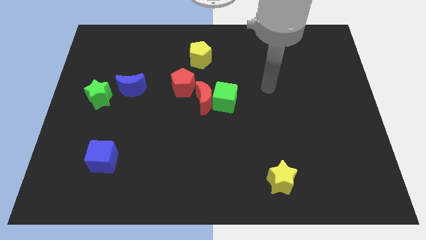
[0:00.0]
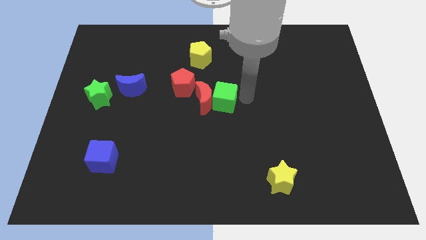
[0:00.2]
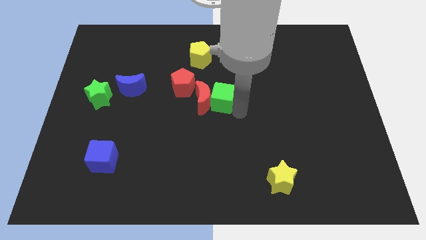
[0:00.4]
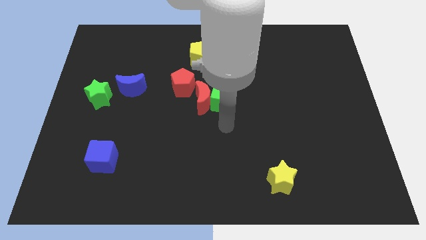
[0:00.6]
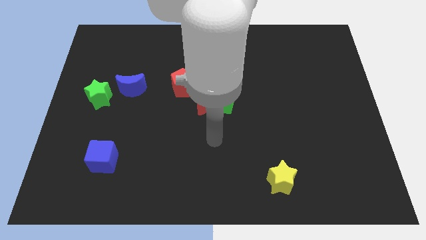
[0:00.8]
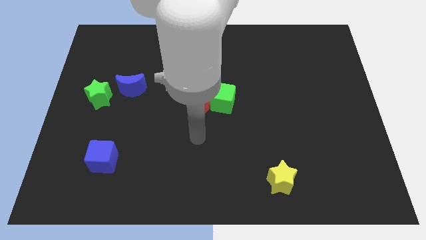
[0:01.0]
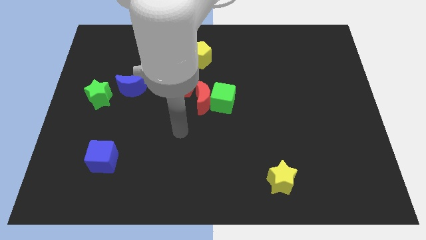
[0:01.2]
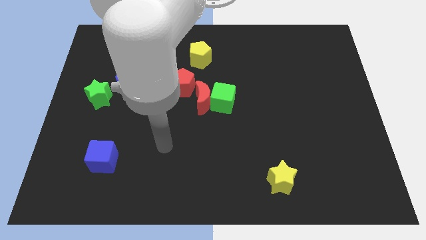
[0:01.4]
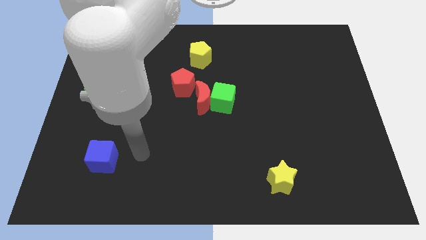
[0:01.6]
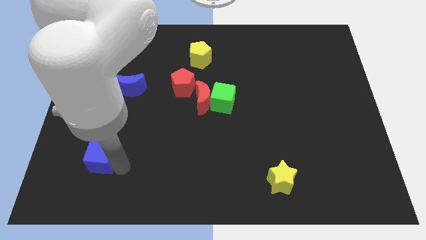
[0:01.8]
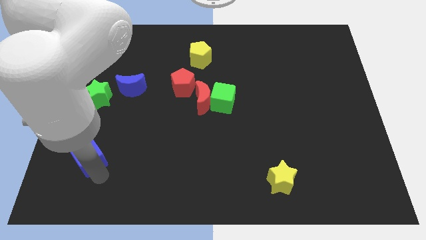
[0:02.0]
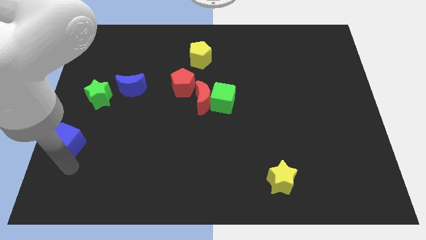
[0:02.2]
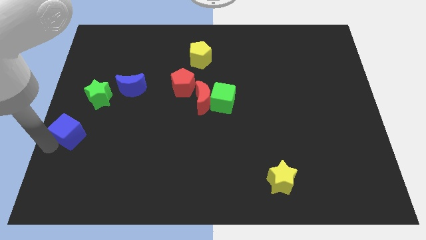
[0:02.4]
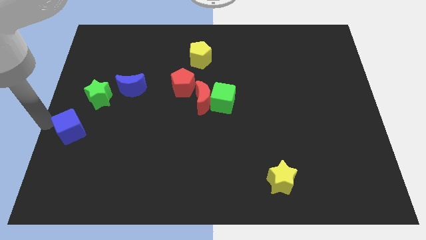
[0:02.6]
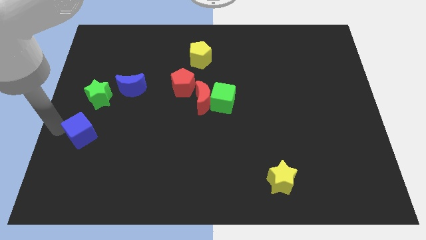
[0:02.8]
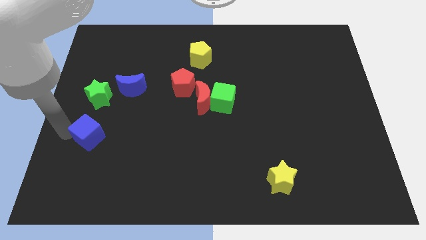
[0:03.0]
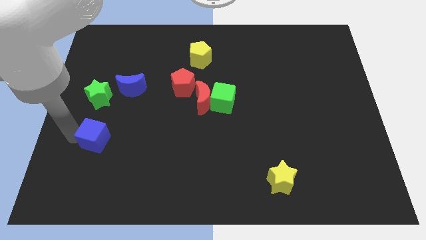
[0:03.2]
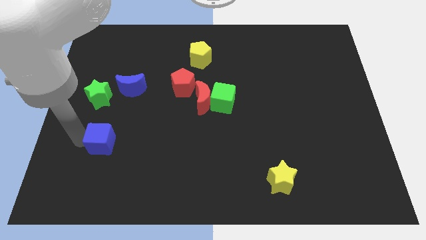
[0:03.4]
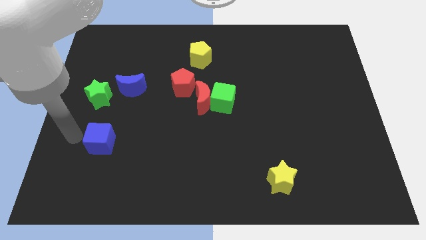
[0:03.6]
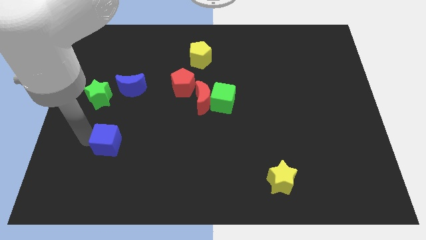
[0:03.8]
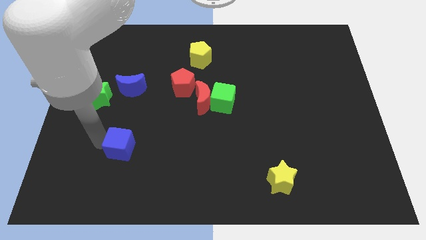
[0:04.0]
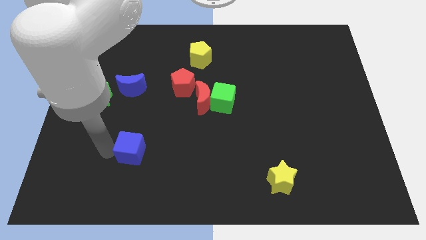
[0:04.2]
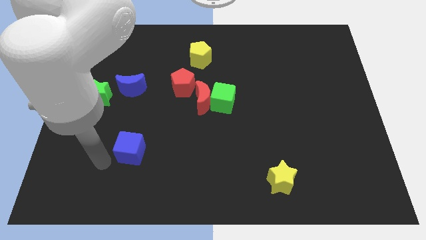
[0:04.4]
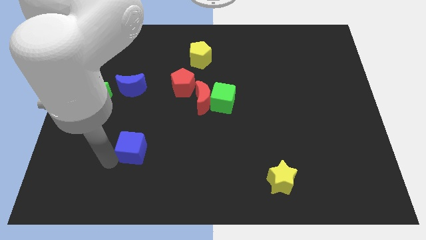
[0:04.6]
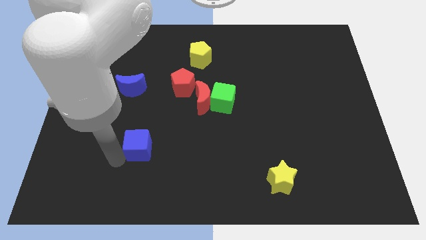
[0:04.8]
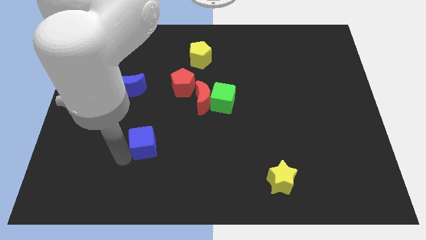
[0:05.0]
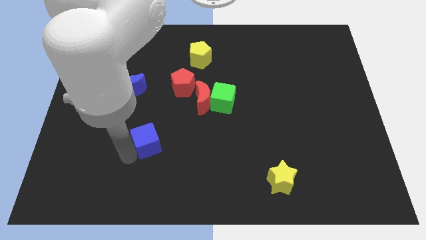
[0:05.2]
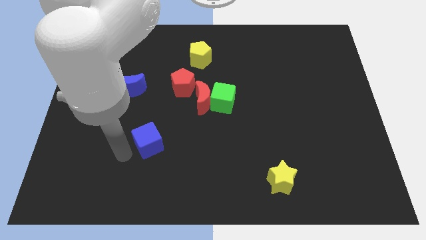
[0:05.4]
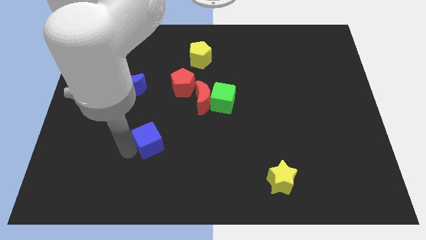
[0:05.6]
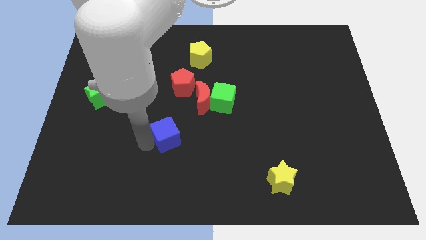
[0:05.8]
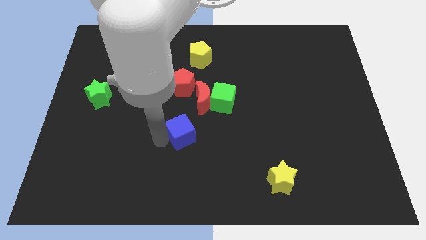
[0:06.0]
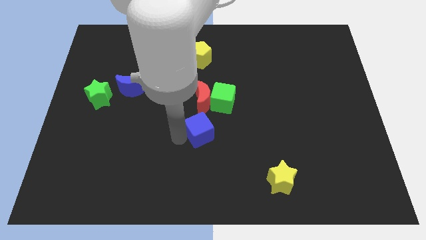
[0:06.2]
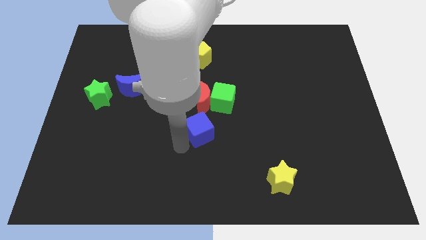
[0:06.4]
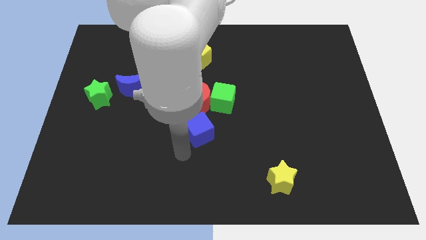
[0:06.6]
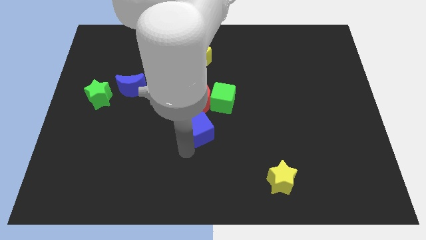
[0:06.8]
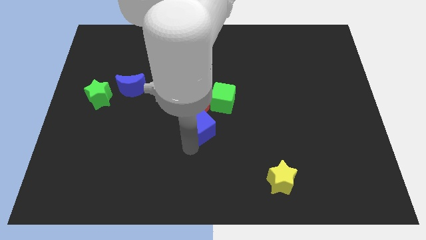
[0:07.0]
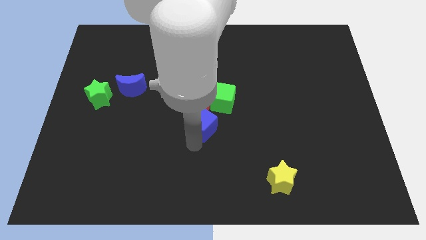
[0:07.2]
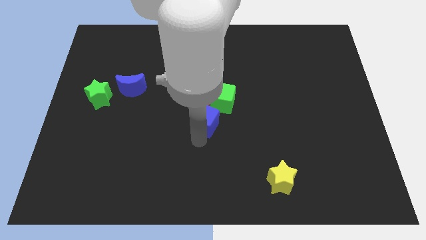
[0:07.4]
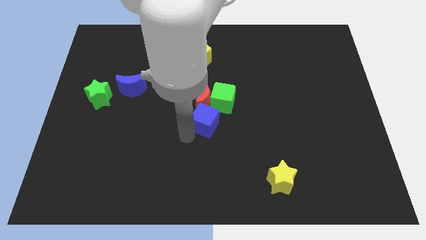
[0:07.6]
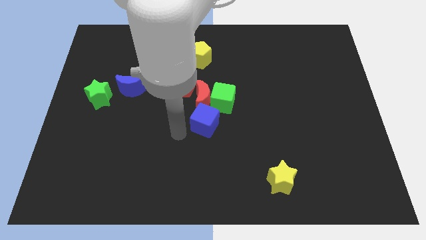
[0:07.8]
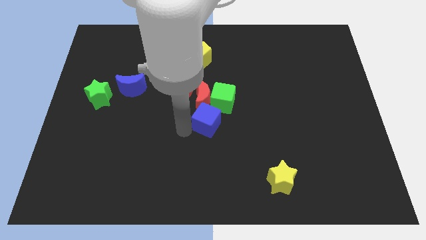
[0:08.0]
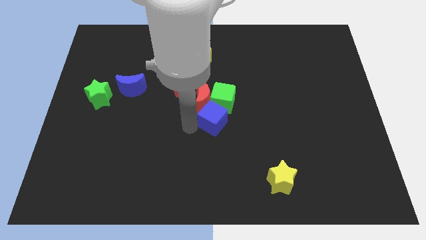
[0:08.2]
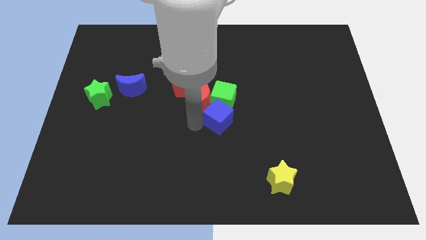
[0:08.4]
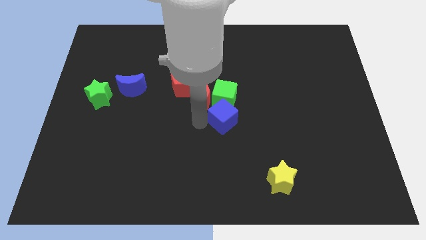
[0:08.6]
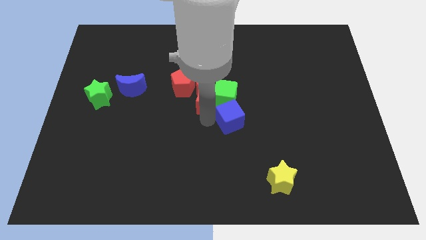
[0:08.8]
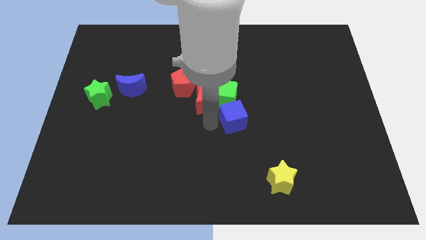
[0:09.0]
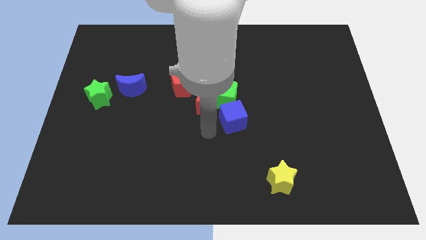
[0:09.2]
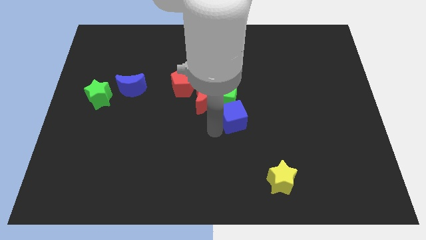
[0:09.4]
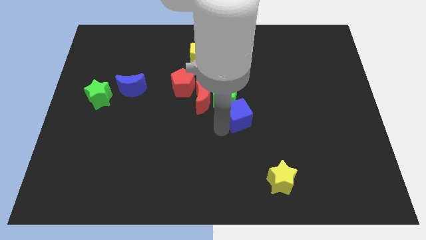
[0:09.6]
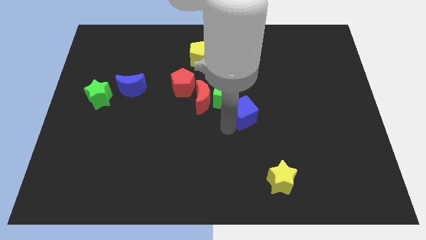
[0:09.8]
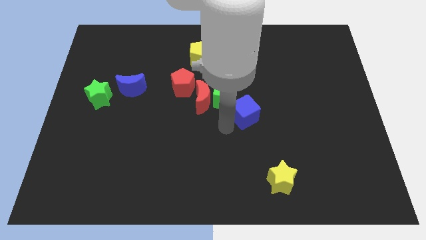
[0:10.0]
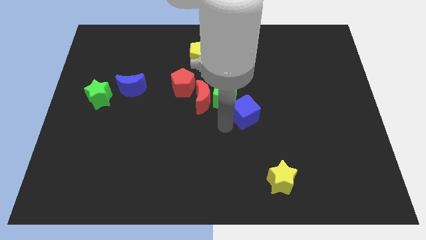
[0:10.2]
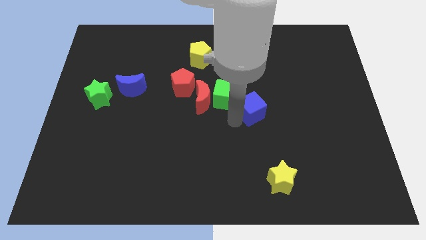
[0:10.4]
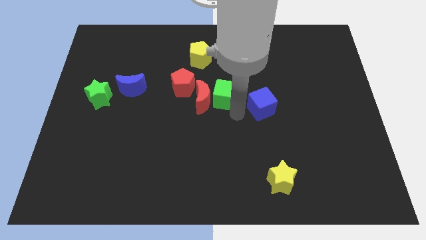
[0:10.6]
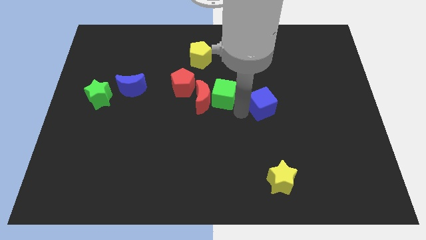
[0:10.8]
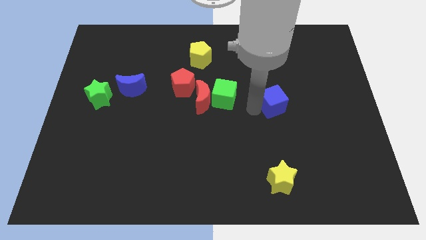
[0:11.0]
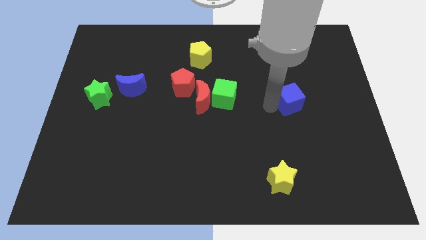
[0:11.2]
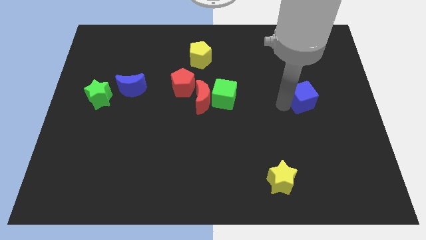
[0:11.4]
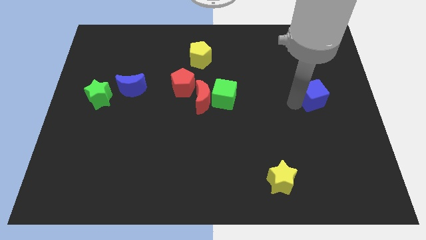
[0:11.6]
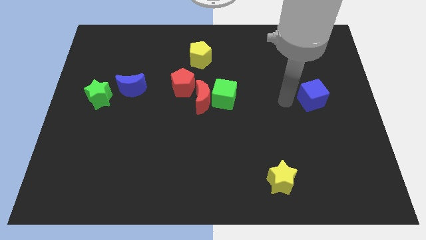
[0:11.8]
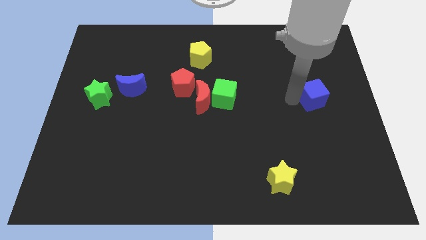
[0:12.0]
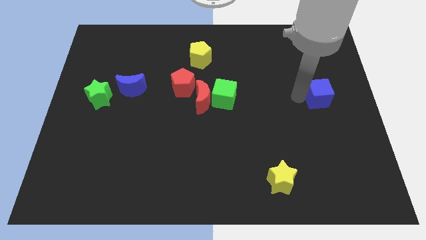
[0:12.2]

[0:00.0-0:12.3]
slide the blue cube to the center right

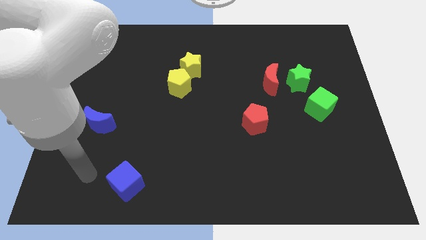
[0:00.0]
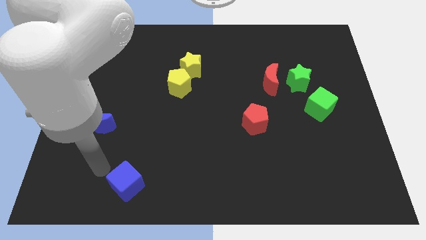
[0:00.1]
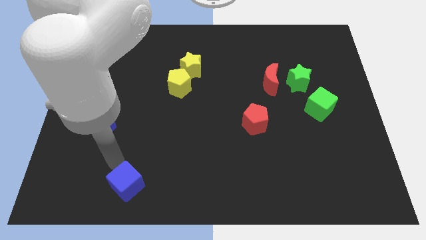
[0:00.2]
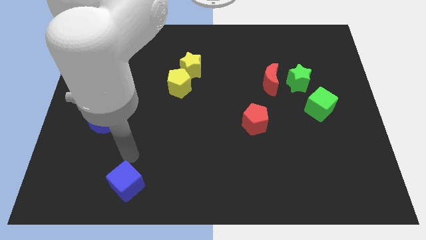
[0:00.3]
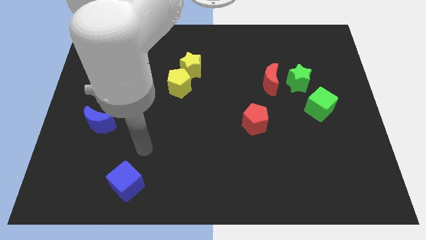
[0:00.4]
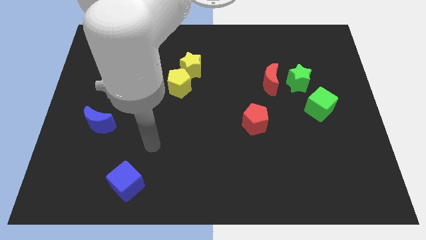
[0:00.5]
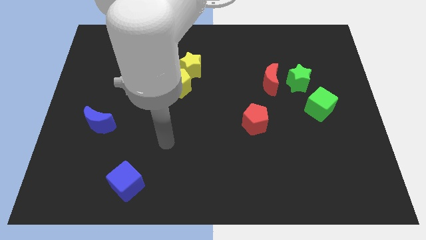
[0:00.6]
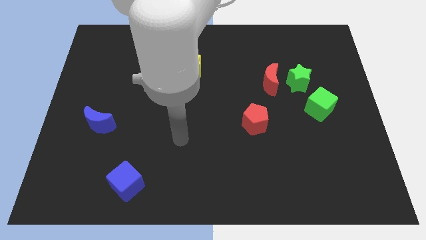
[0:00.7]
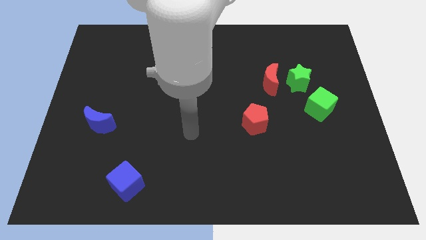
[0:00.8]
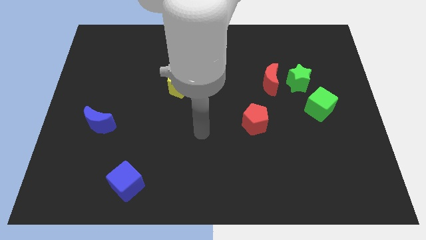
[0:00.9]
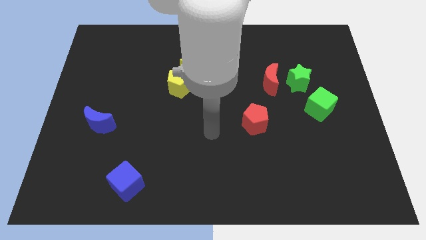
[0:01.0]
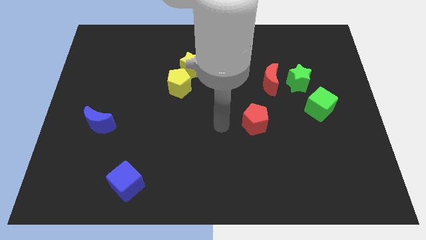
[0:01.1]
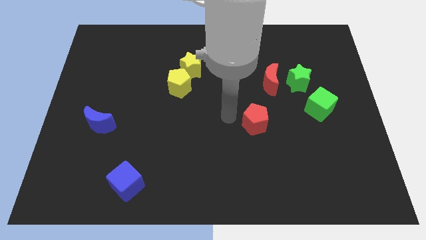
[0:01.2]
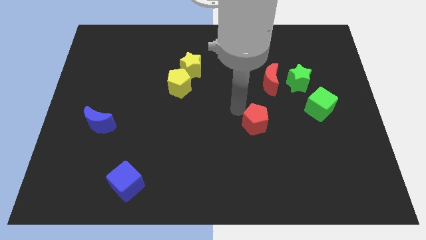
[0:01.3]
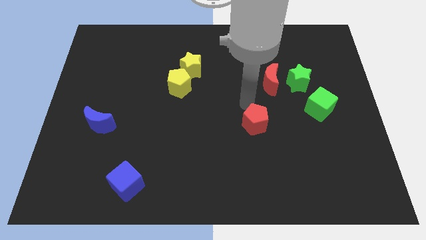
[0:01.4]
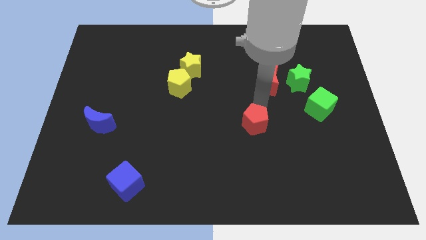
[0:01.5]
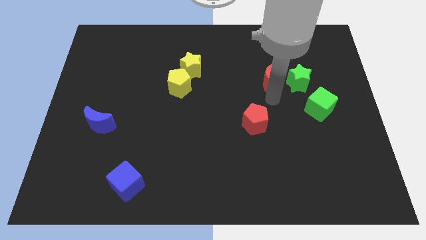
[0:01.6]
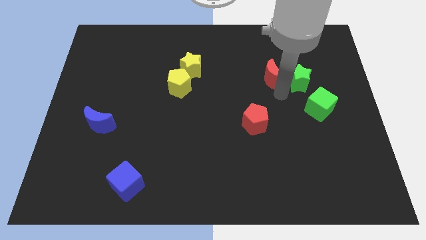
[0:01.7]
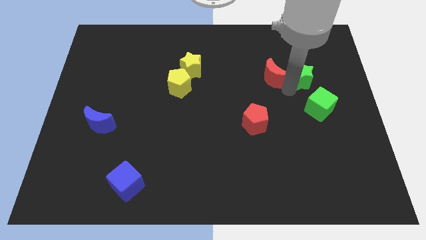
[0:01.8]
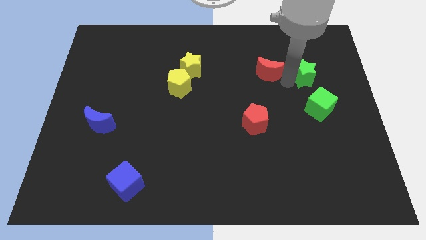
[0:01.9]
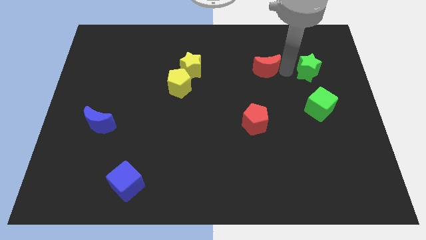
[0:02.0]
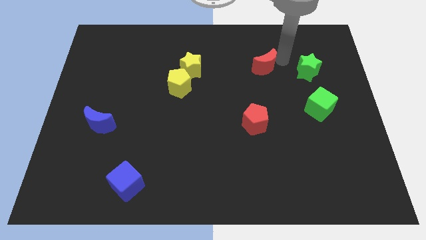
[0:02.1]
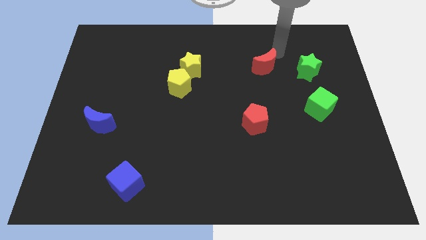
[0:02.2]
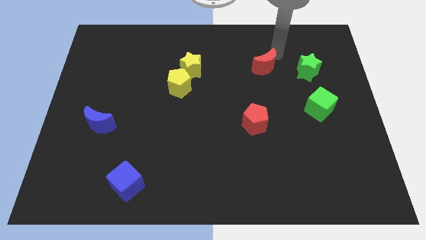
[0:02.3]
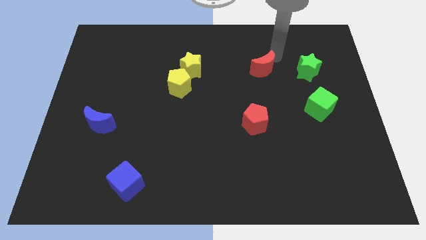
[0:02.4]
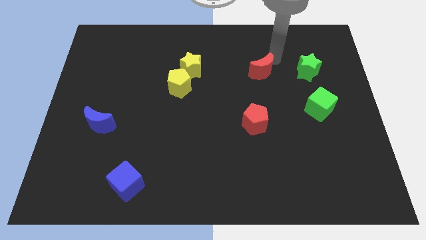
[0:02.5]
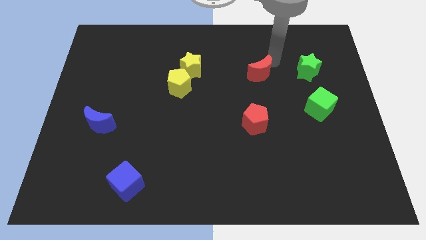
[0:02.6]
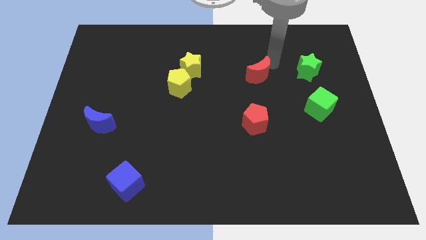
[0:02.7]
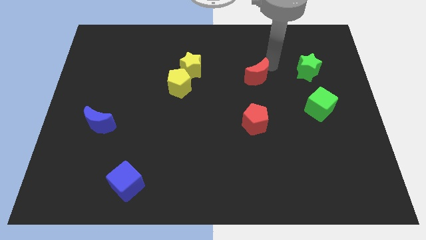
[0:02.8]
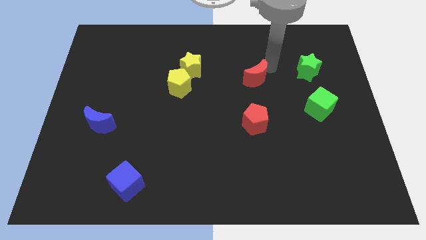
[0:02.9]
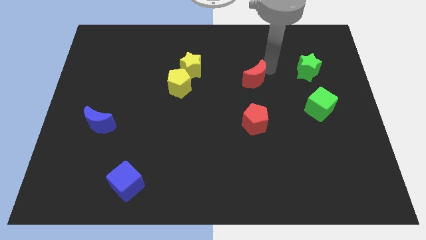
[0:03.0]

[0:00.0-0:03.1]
put the red moon to the center
